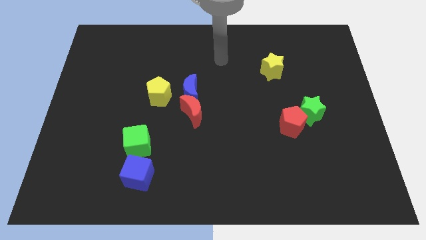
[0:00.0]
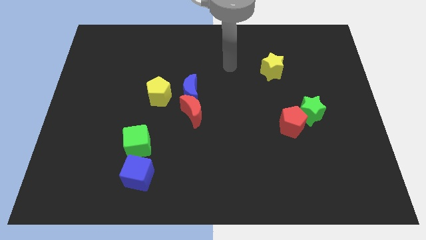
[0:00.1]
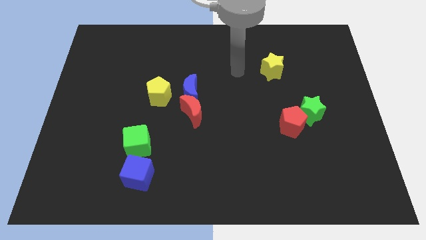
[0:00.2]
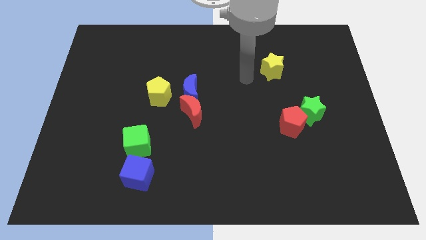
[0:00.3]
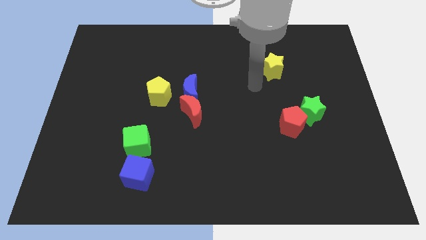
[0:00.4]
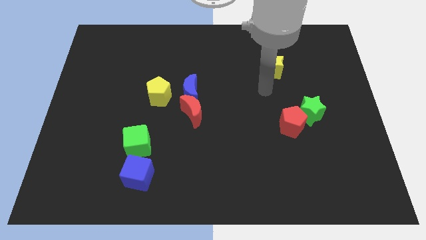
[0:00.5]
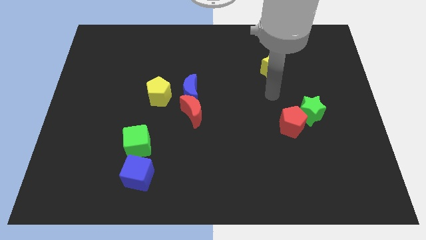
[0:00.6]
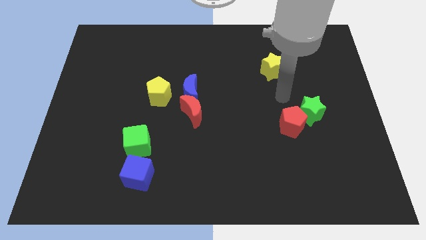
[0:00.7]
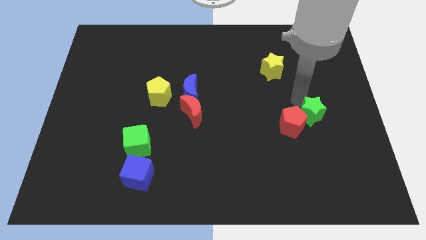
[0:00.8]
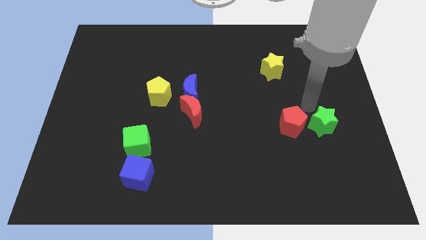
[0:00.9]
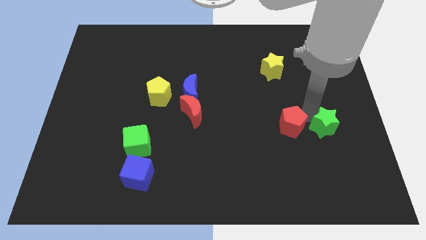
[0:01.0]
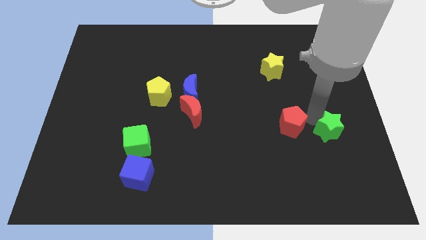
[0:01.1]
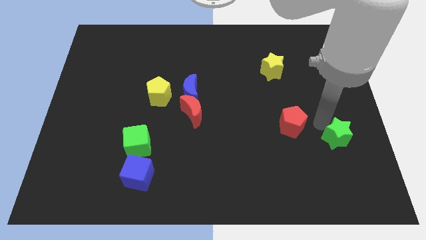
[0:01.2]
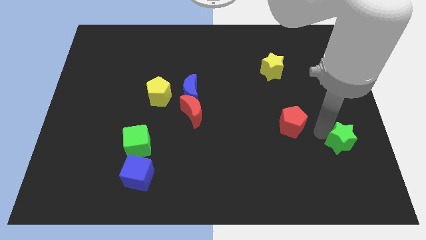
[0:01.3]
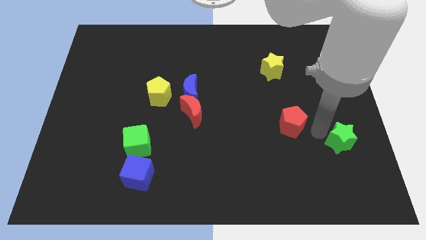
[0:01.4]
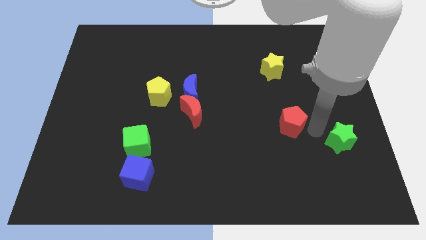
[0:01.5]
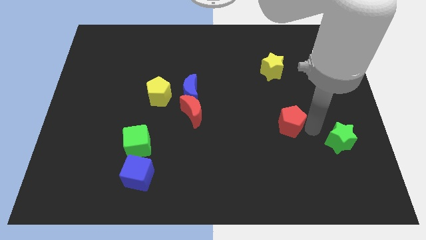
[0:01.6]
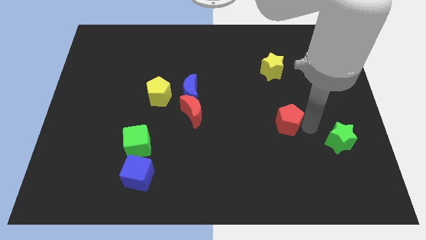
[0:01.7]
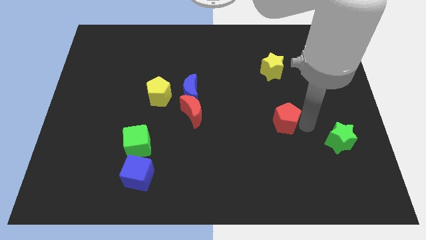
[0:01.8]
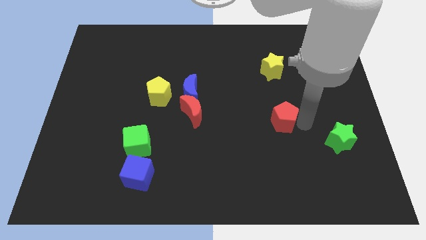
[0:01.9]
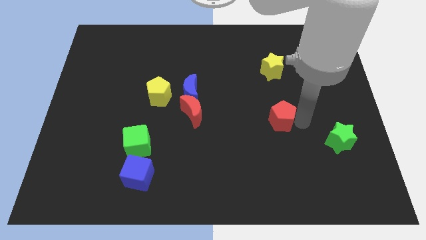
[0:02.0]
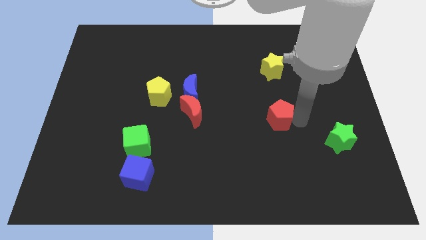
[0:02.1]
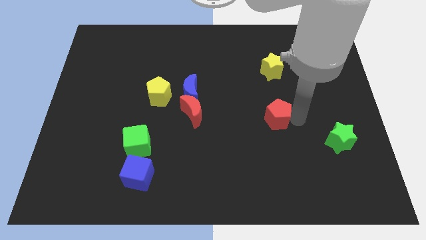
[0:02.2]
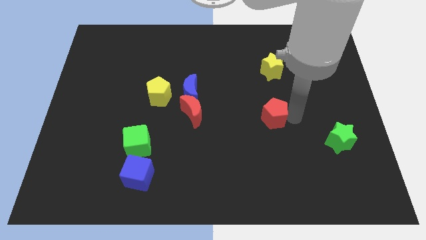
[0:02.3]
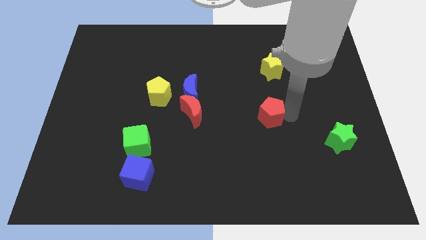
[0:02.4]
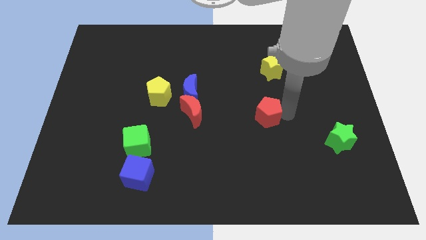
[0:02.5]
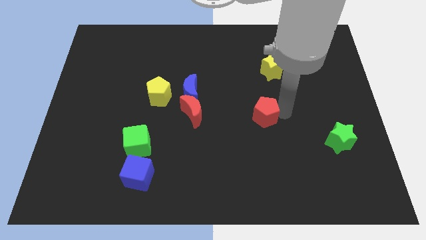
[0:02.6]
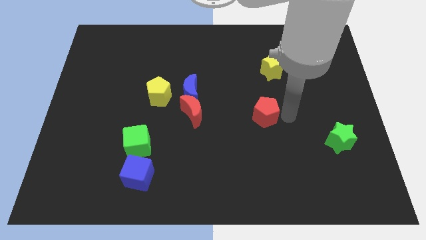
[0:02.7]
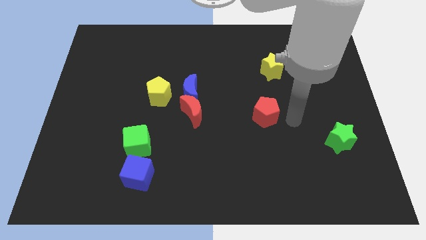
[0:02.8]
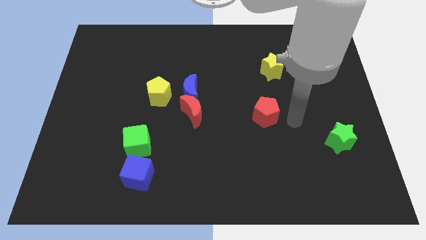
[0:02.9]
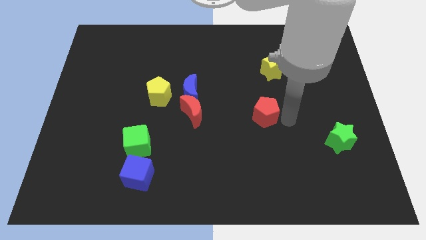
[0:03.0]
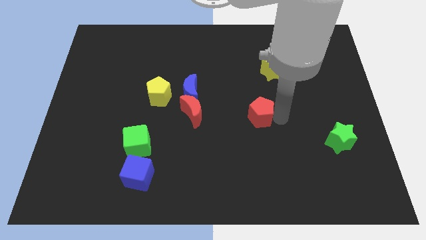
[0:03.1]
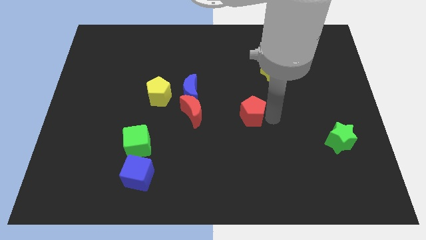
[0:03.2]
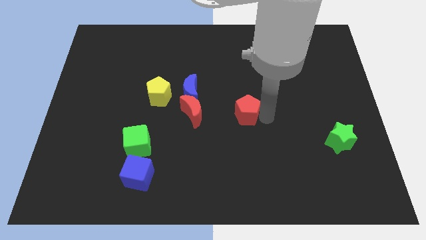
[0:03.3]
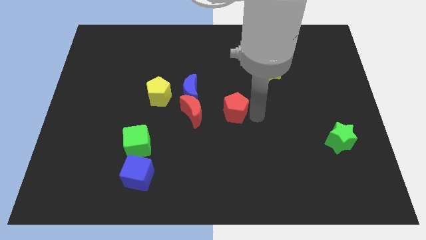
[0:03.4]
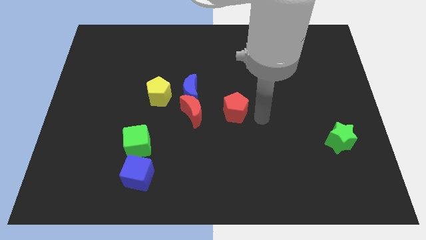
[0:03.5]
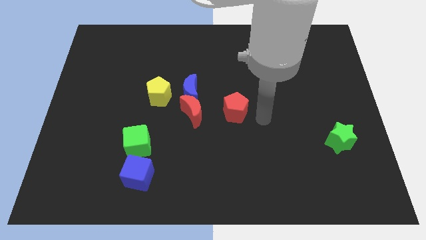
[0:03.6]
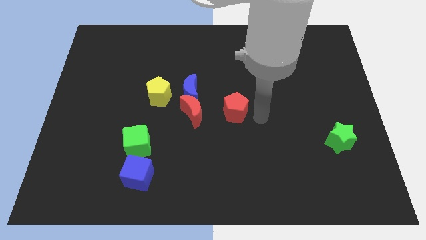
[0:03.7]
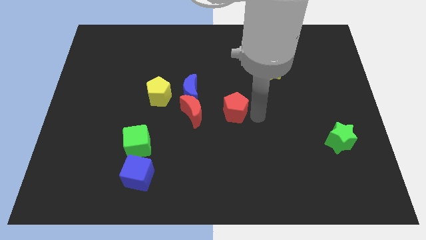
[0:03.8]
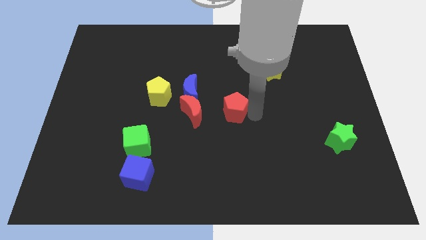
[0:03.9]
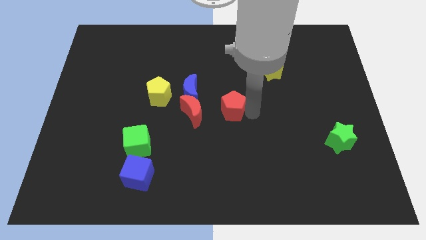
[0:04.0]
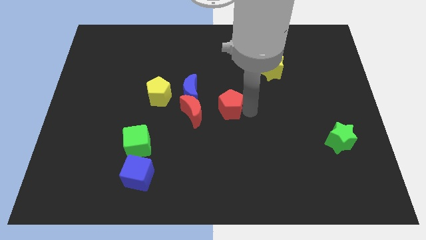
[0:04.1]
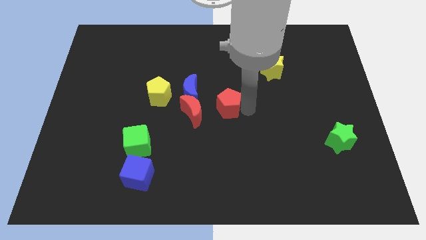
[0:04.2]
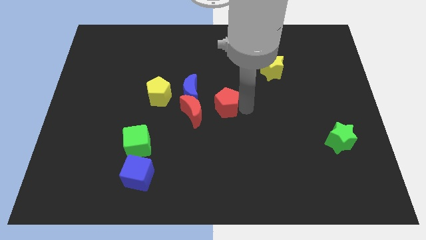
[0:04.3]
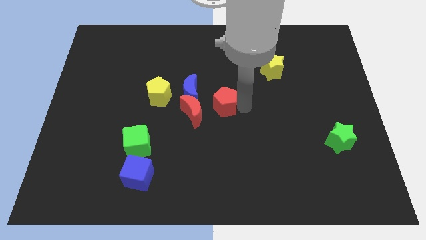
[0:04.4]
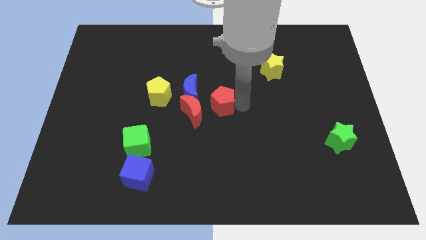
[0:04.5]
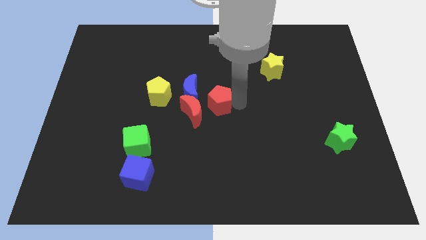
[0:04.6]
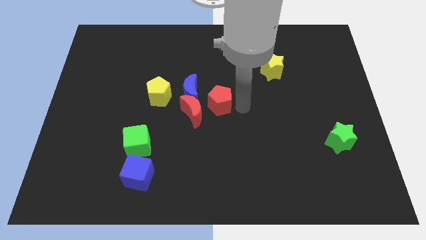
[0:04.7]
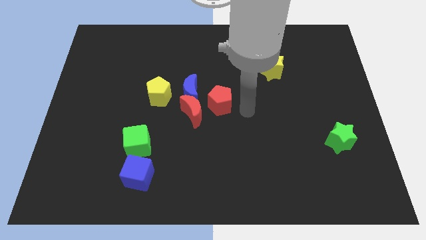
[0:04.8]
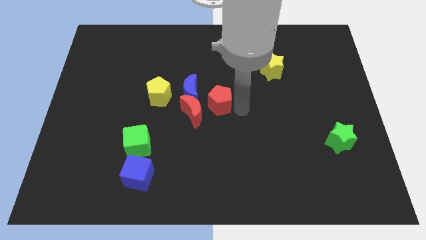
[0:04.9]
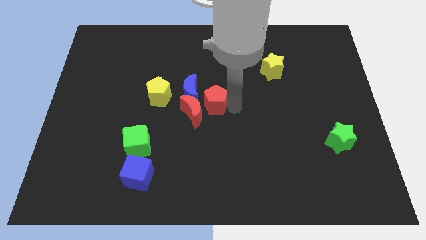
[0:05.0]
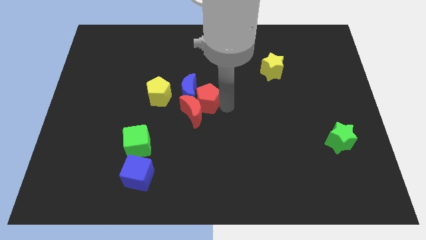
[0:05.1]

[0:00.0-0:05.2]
put the red pentagon to the blue moon

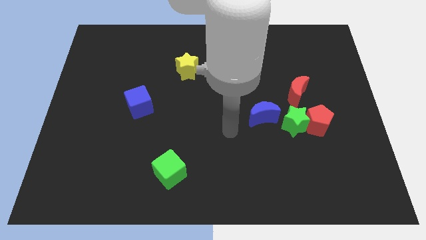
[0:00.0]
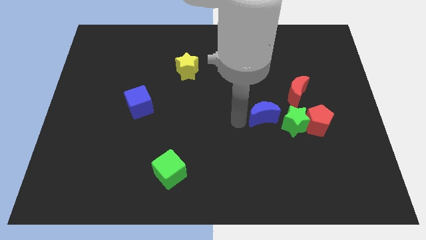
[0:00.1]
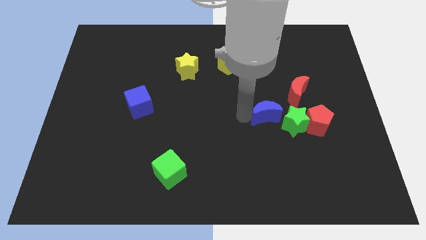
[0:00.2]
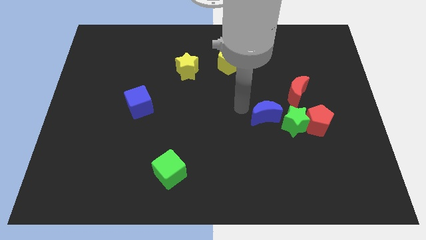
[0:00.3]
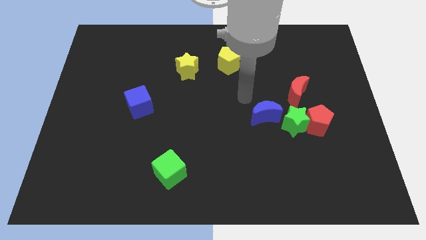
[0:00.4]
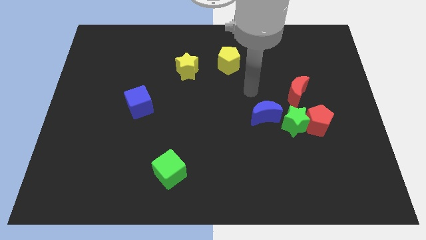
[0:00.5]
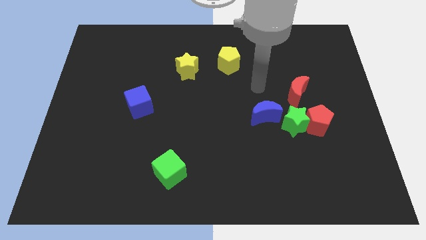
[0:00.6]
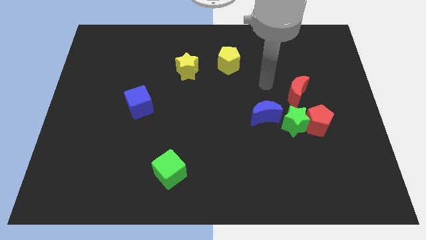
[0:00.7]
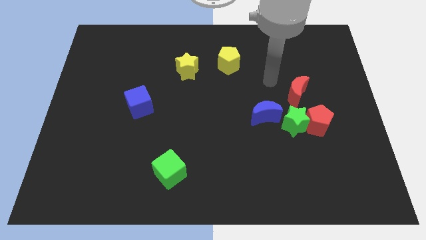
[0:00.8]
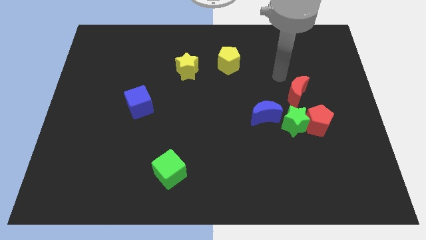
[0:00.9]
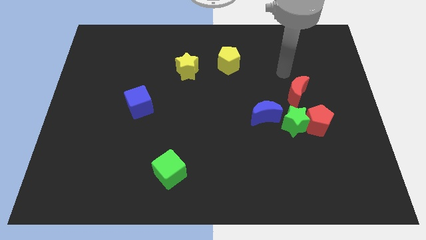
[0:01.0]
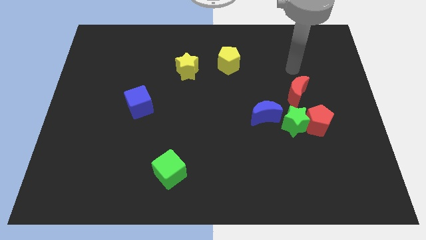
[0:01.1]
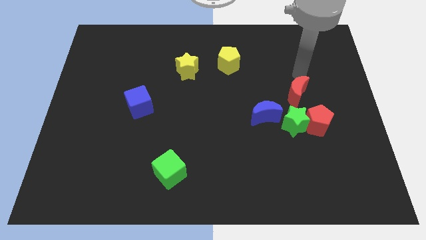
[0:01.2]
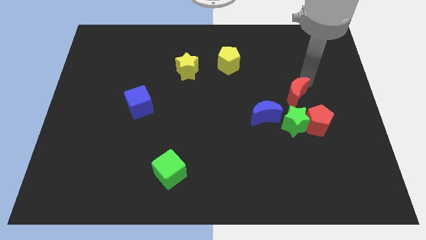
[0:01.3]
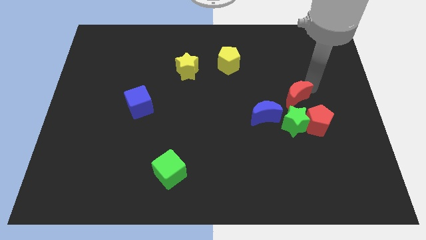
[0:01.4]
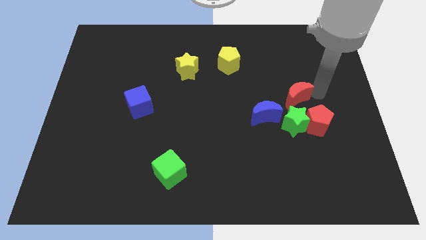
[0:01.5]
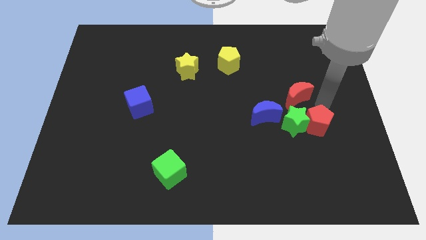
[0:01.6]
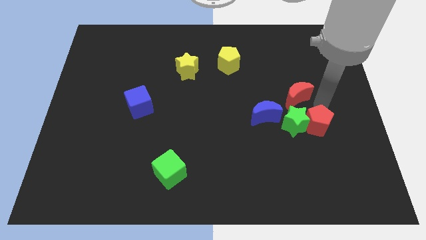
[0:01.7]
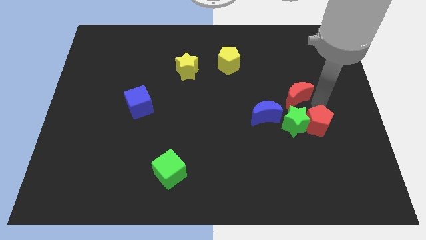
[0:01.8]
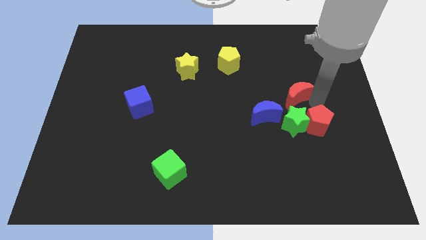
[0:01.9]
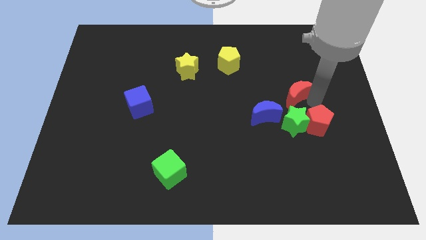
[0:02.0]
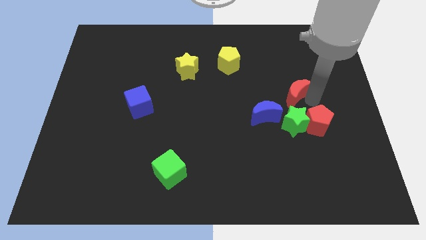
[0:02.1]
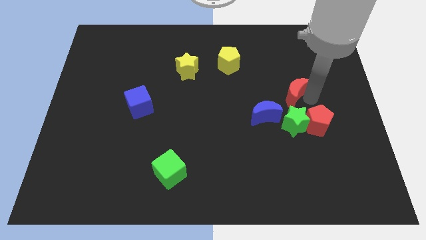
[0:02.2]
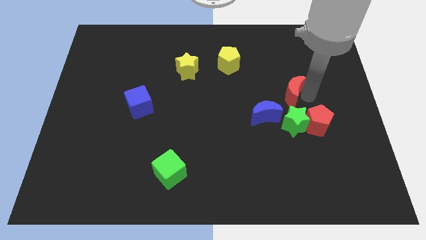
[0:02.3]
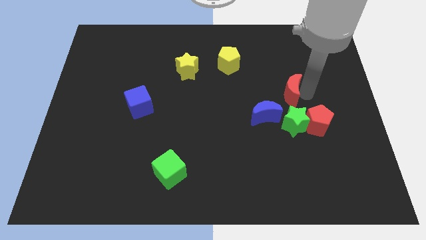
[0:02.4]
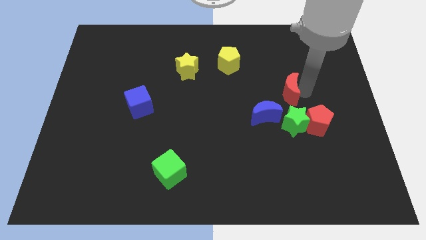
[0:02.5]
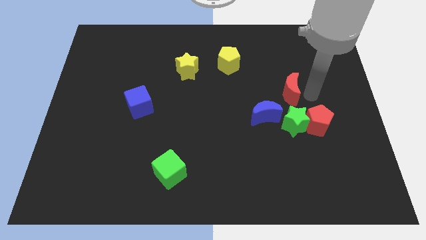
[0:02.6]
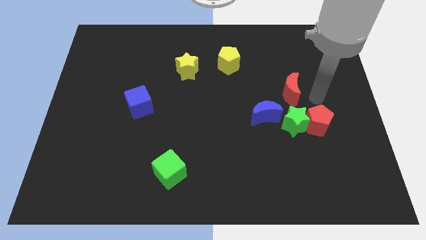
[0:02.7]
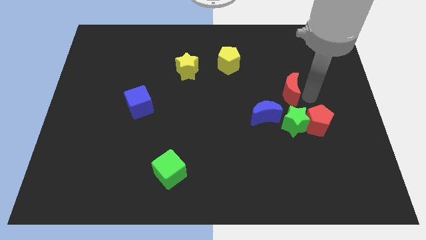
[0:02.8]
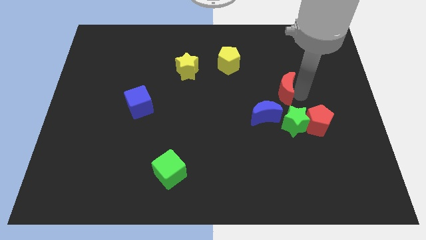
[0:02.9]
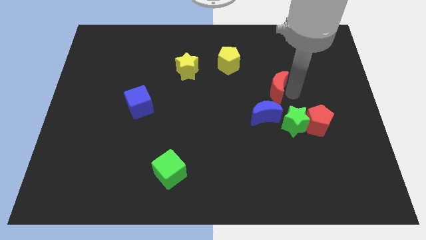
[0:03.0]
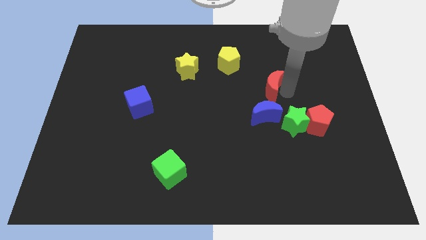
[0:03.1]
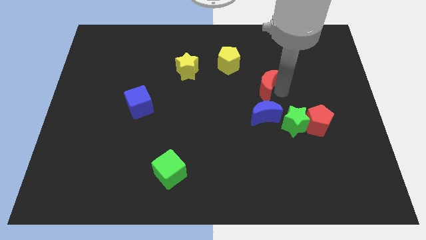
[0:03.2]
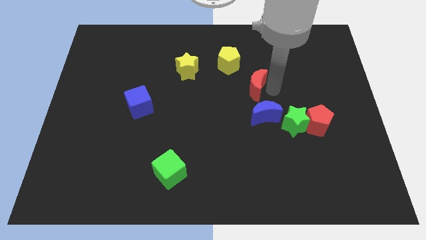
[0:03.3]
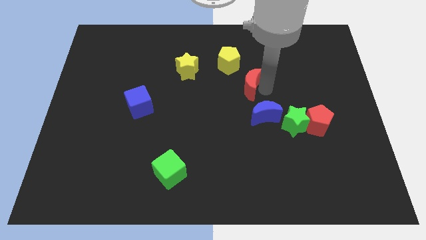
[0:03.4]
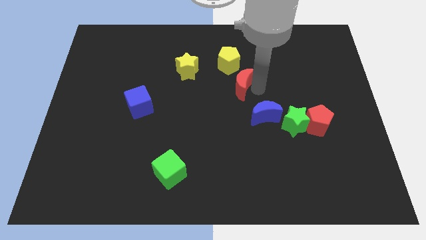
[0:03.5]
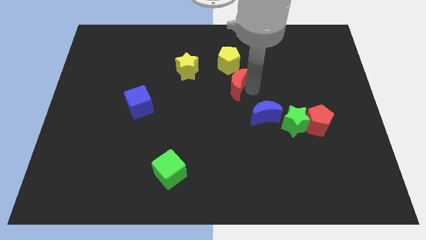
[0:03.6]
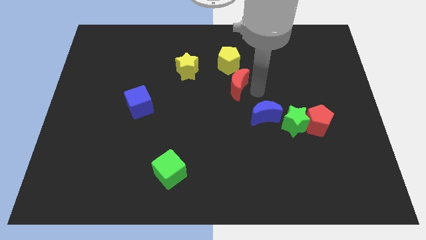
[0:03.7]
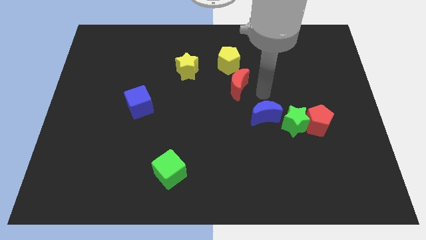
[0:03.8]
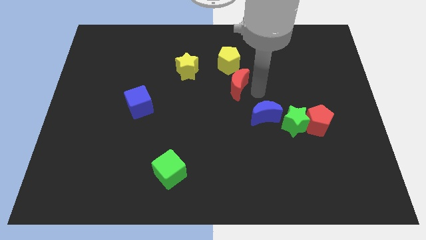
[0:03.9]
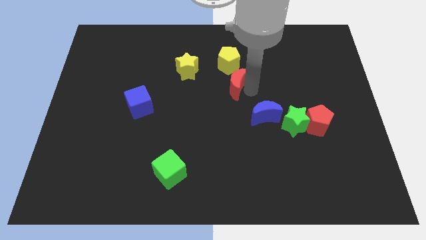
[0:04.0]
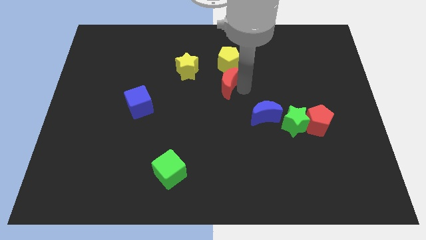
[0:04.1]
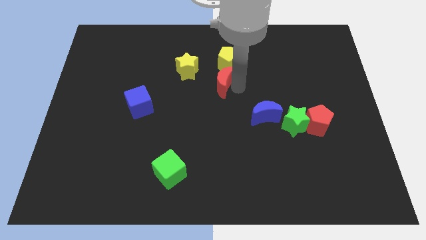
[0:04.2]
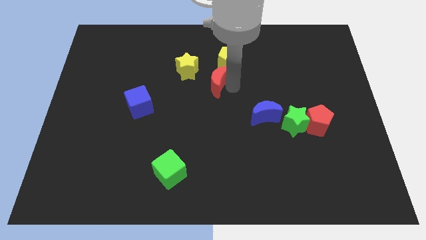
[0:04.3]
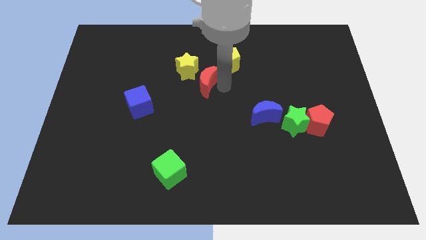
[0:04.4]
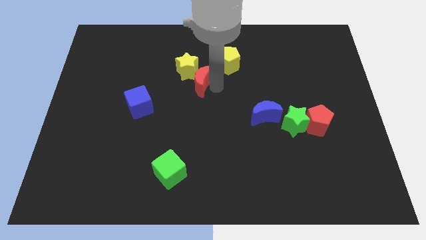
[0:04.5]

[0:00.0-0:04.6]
slide the red moon towards the yellow star
